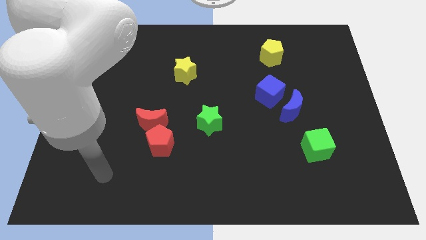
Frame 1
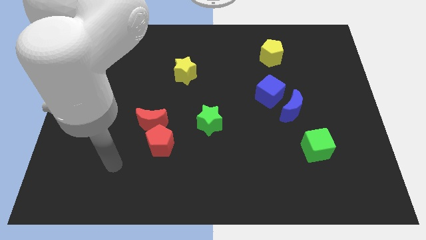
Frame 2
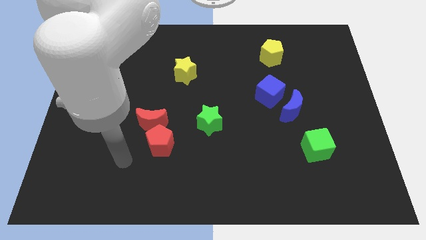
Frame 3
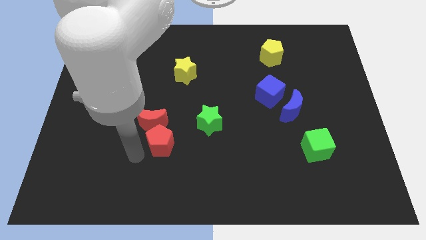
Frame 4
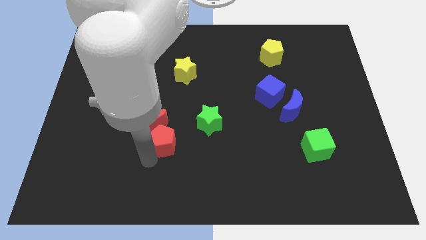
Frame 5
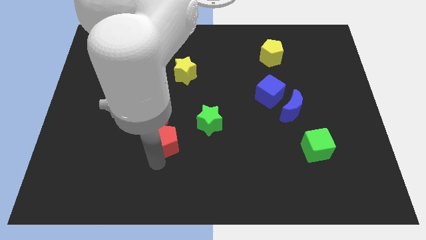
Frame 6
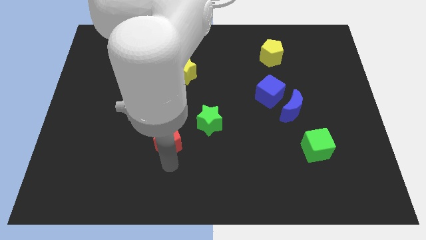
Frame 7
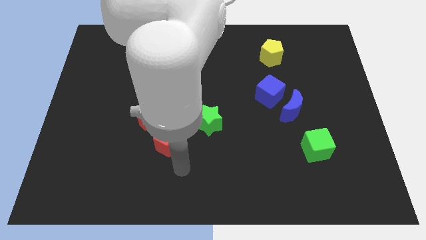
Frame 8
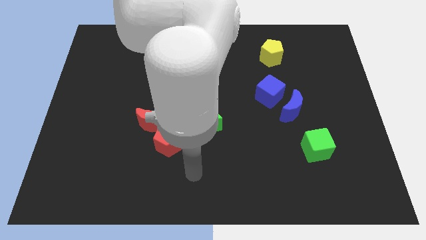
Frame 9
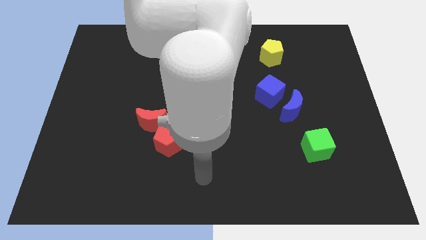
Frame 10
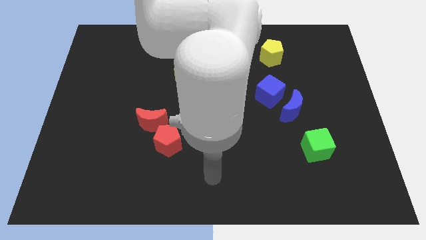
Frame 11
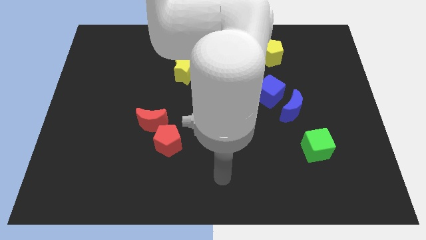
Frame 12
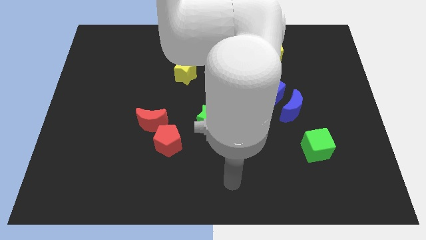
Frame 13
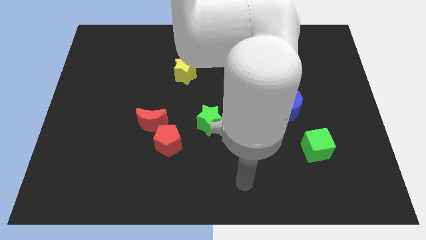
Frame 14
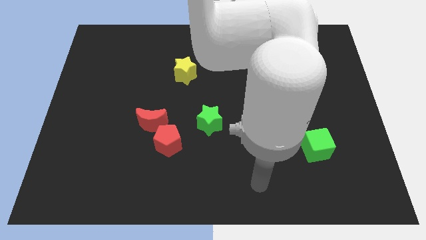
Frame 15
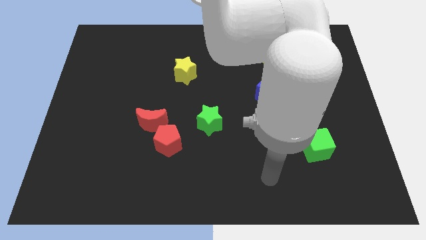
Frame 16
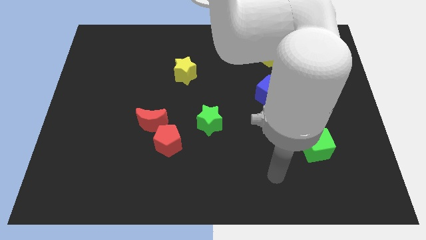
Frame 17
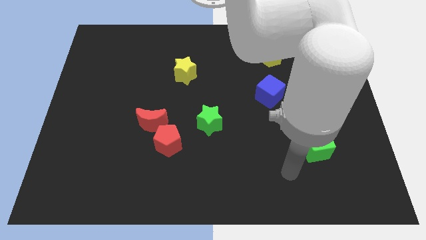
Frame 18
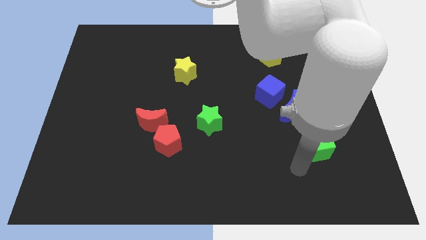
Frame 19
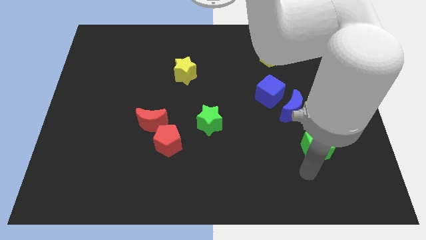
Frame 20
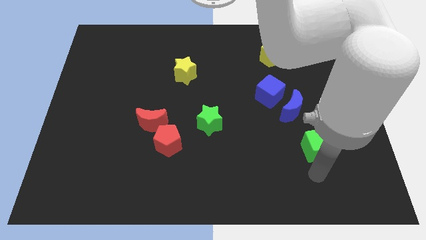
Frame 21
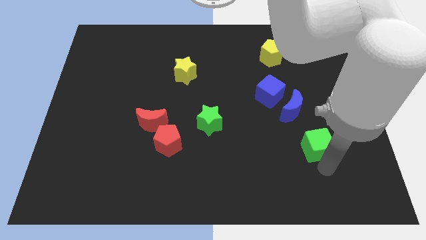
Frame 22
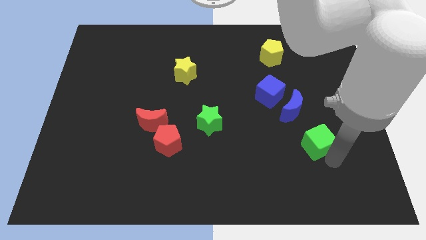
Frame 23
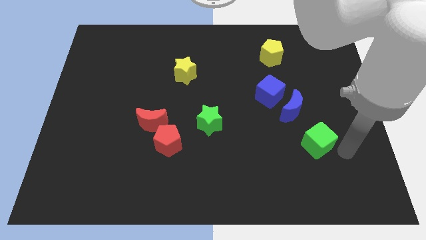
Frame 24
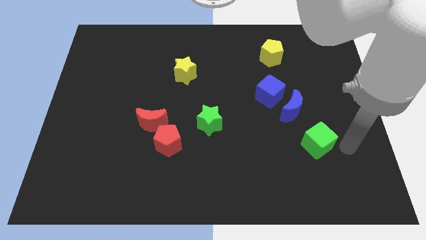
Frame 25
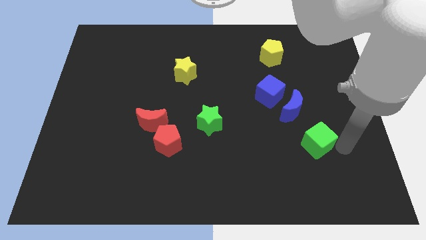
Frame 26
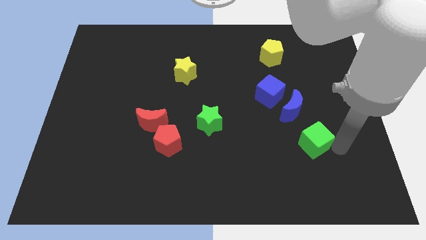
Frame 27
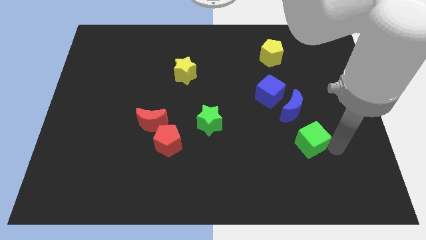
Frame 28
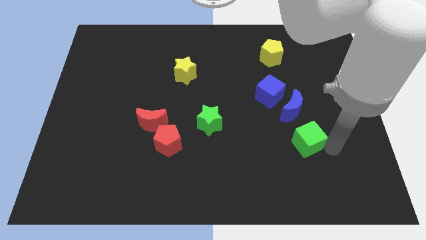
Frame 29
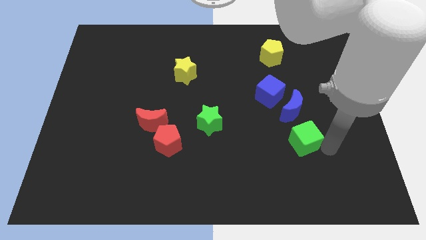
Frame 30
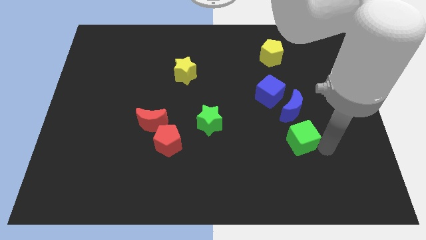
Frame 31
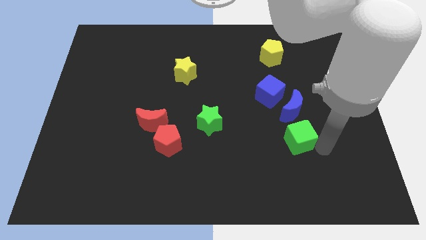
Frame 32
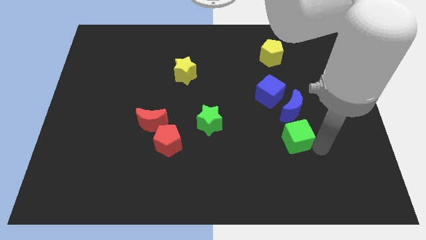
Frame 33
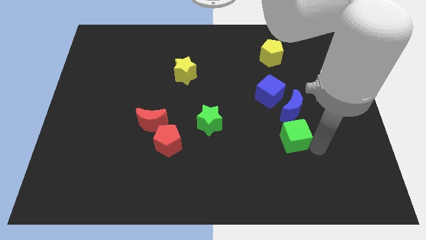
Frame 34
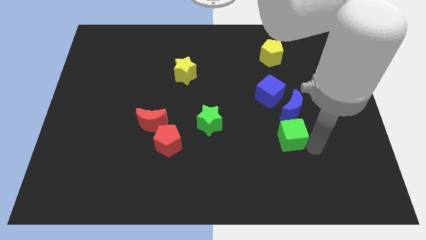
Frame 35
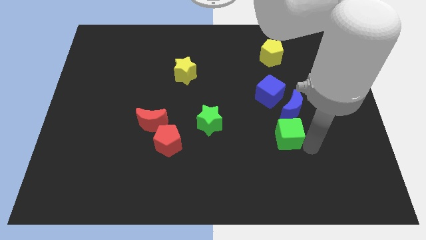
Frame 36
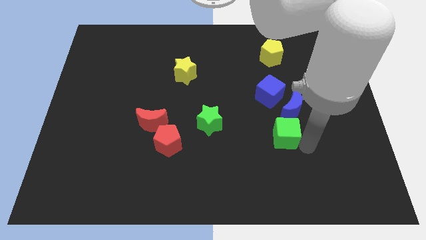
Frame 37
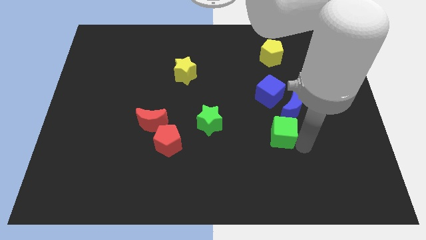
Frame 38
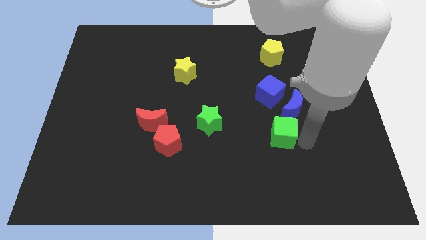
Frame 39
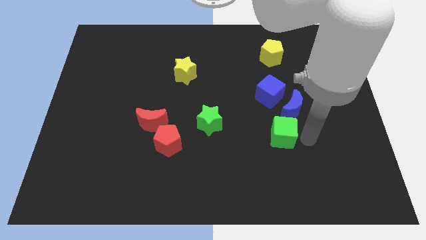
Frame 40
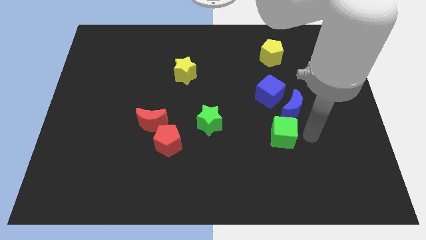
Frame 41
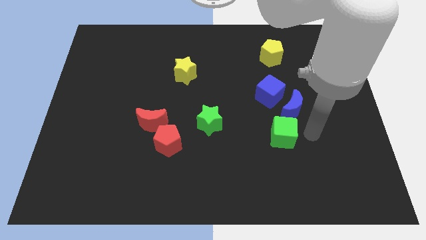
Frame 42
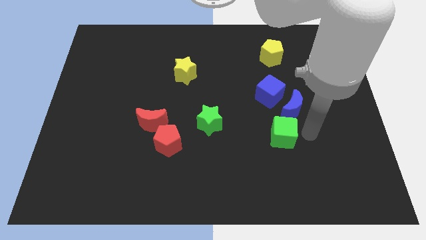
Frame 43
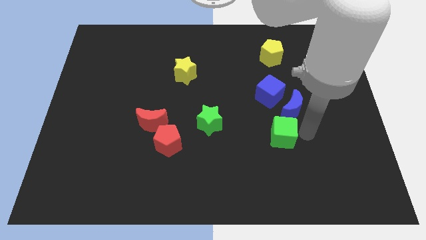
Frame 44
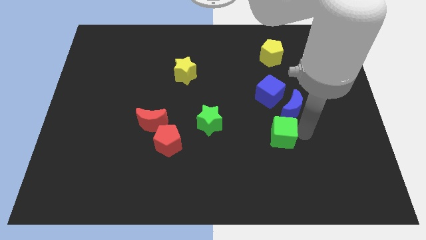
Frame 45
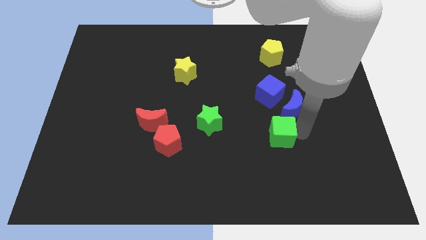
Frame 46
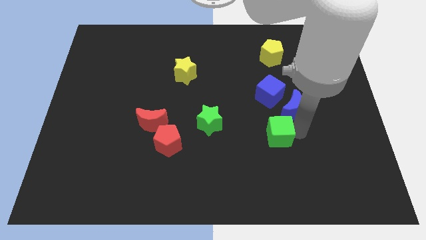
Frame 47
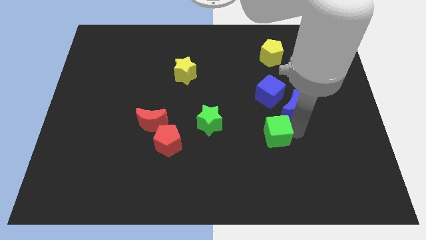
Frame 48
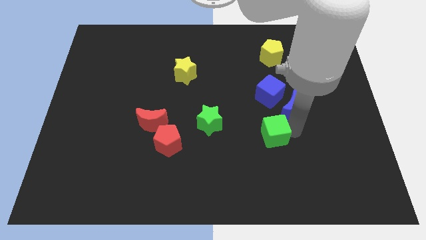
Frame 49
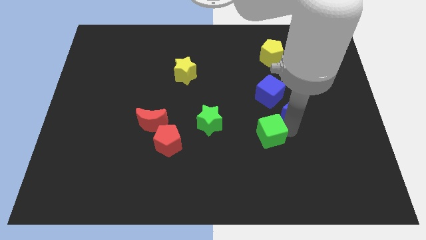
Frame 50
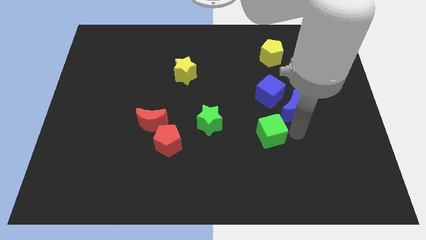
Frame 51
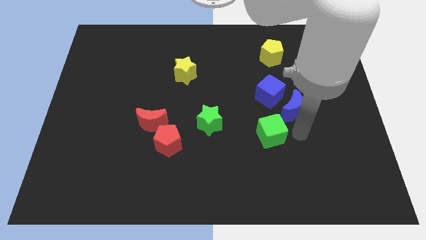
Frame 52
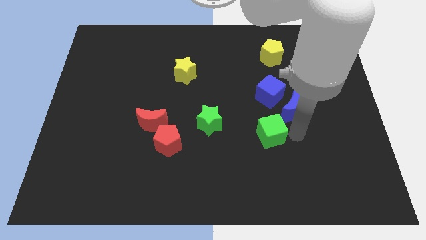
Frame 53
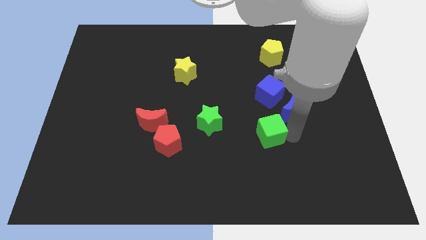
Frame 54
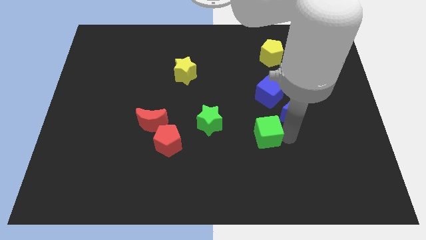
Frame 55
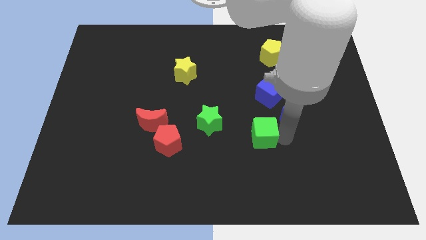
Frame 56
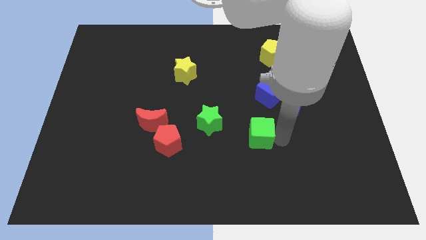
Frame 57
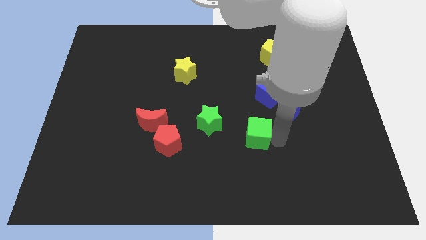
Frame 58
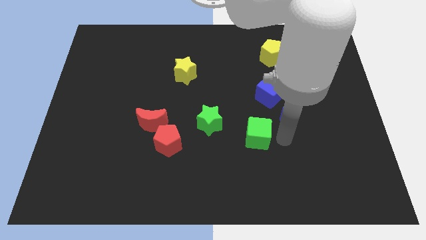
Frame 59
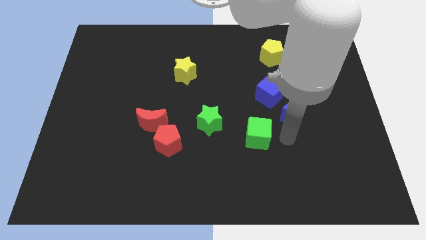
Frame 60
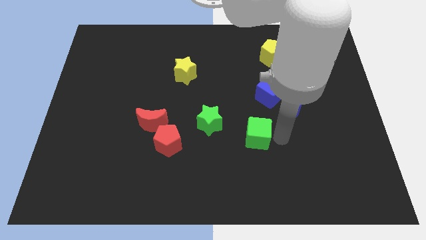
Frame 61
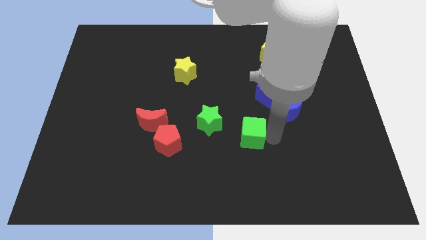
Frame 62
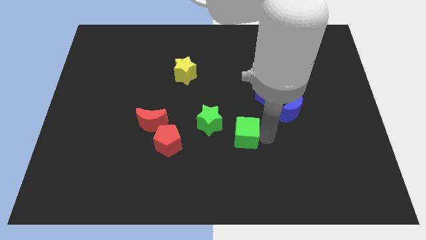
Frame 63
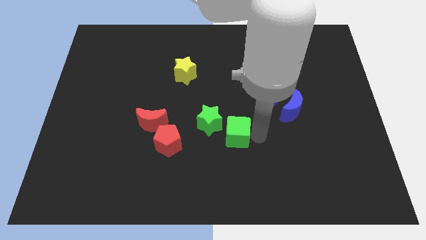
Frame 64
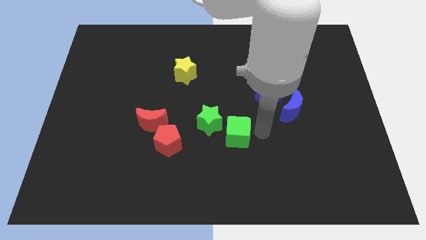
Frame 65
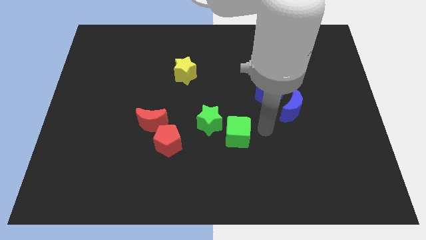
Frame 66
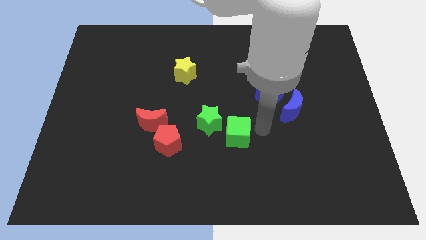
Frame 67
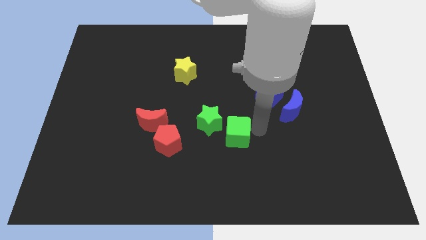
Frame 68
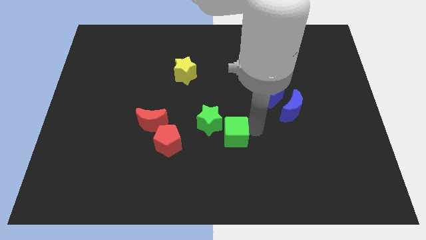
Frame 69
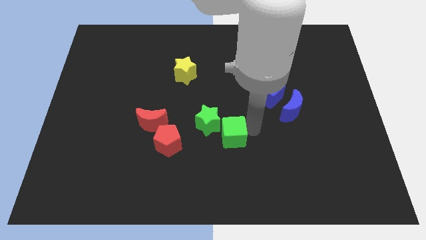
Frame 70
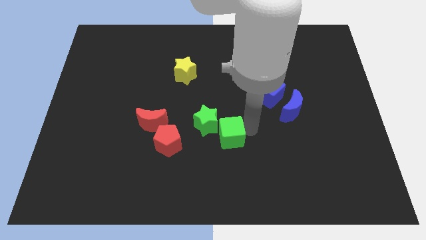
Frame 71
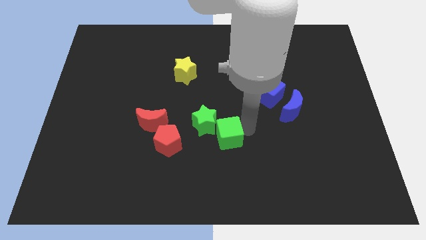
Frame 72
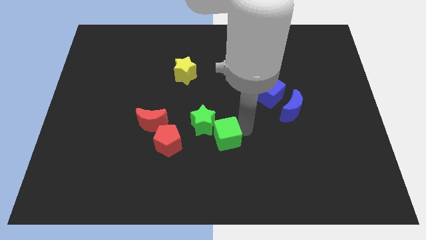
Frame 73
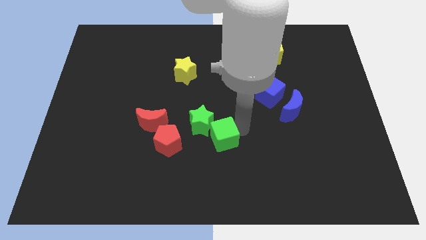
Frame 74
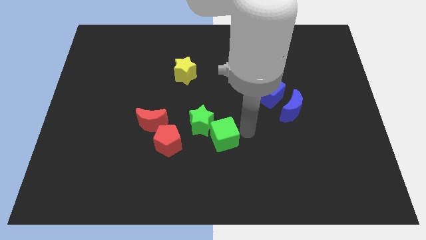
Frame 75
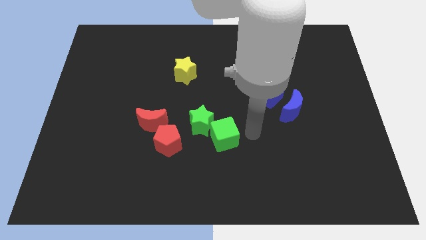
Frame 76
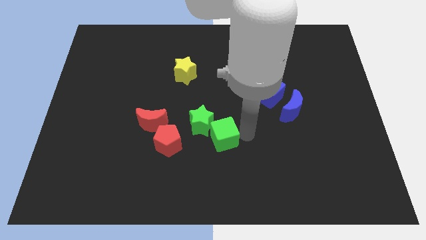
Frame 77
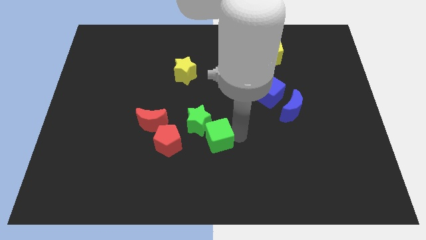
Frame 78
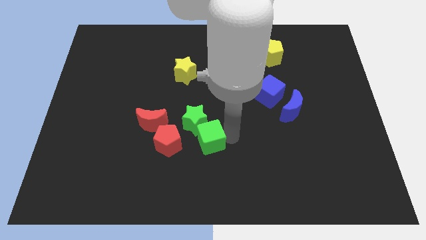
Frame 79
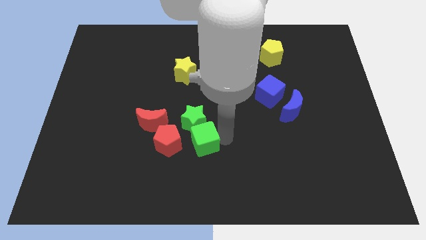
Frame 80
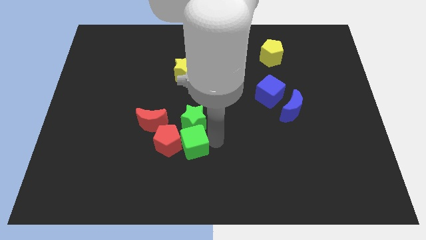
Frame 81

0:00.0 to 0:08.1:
put the green cube next to the red pentagon
